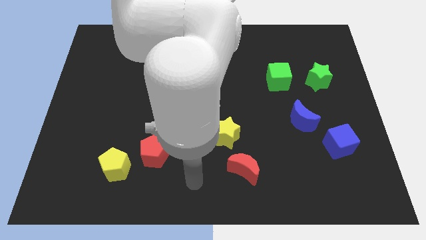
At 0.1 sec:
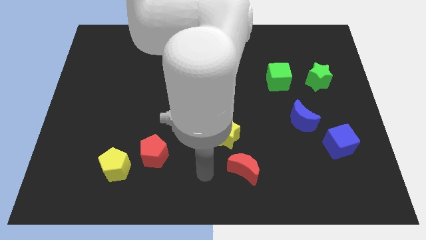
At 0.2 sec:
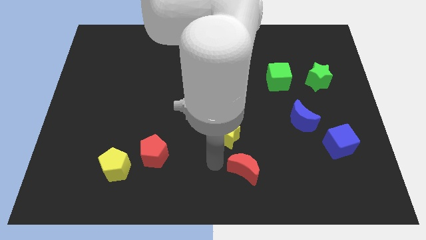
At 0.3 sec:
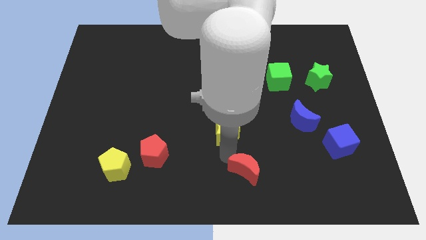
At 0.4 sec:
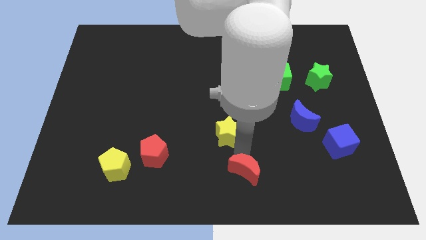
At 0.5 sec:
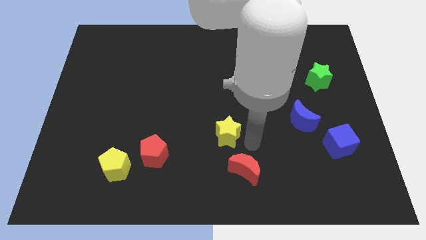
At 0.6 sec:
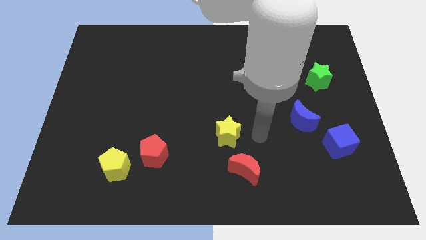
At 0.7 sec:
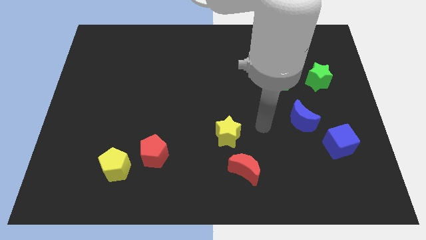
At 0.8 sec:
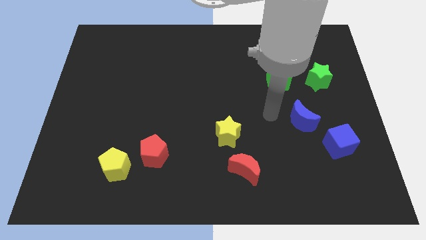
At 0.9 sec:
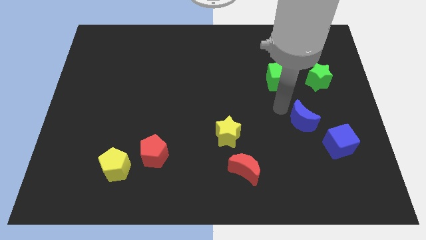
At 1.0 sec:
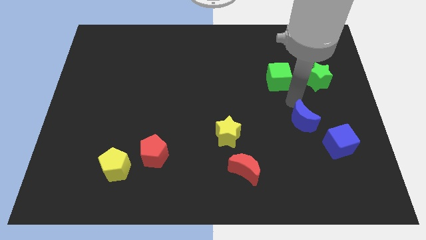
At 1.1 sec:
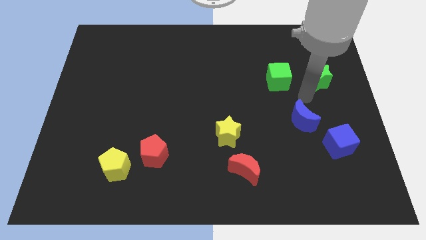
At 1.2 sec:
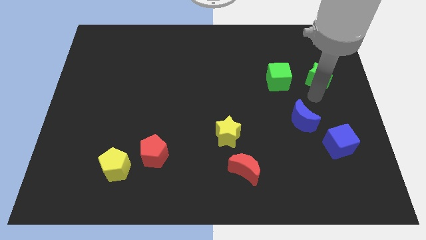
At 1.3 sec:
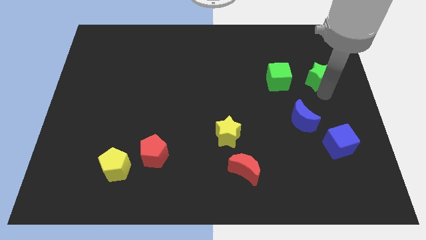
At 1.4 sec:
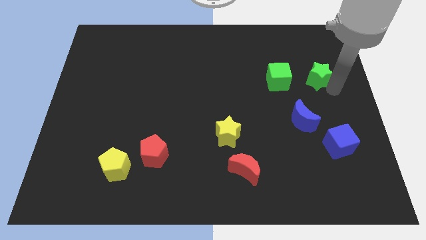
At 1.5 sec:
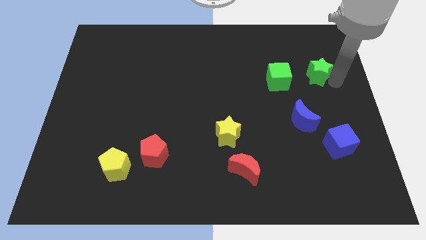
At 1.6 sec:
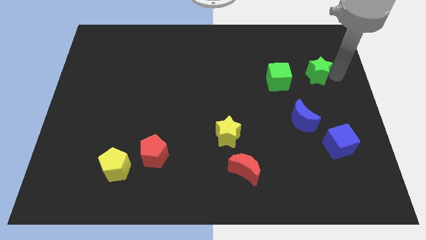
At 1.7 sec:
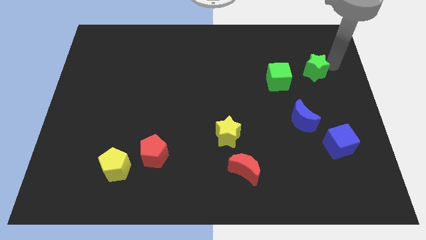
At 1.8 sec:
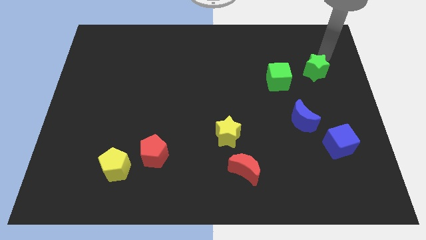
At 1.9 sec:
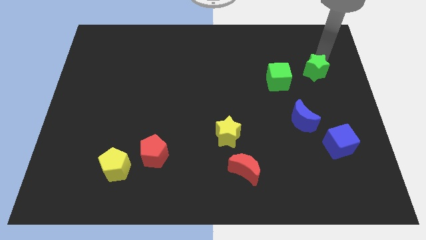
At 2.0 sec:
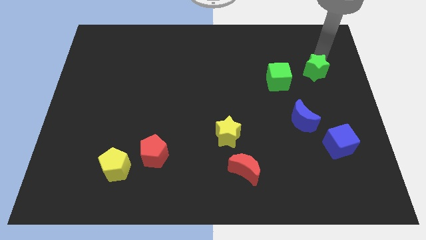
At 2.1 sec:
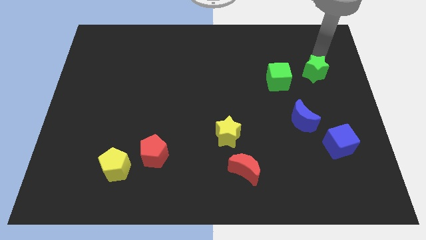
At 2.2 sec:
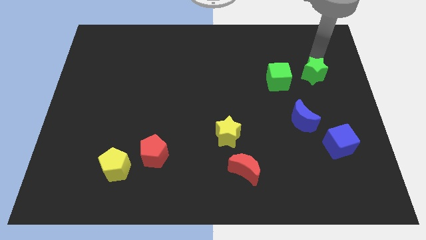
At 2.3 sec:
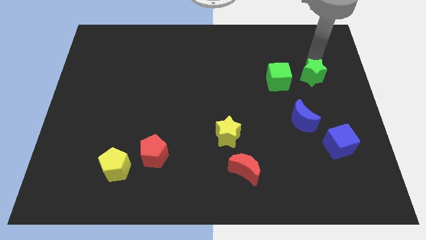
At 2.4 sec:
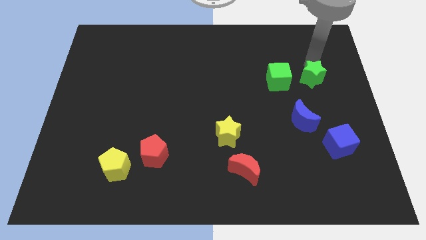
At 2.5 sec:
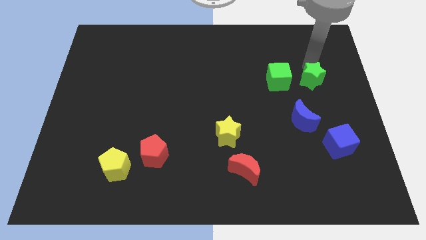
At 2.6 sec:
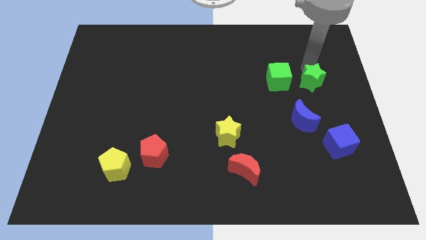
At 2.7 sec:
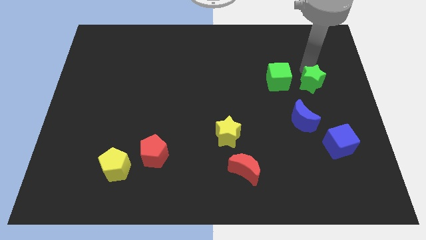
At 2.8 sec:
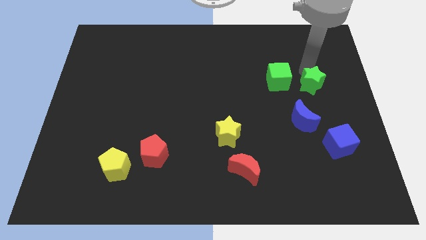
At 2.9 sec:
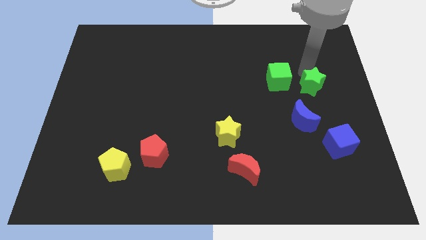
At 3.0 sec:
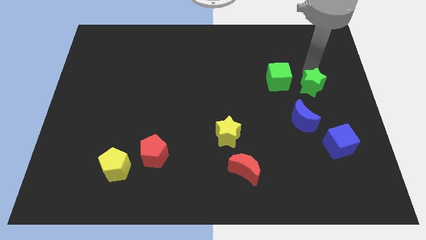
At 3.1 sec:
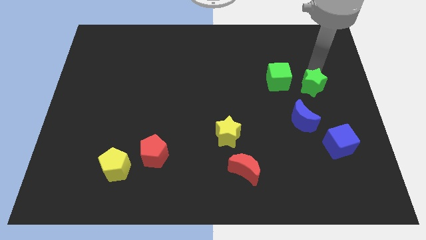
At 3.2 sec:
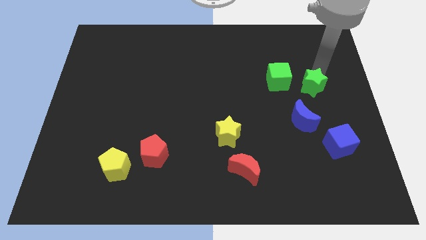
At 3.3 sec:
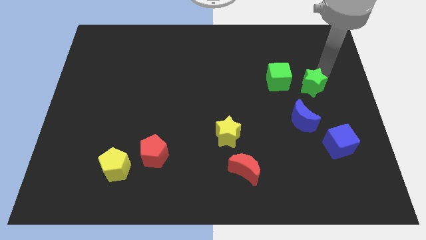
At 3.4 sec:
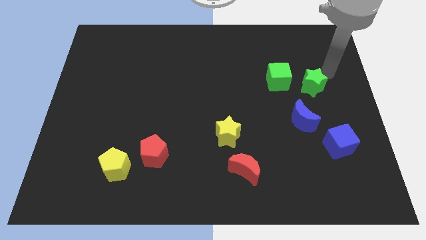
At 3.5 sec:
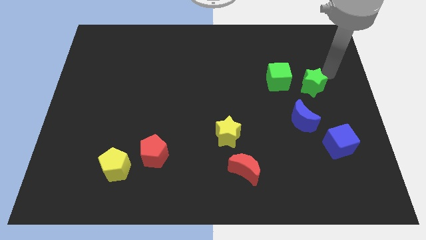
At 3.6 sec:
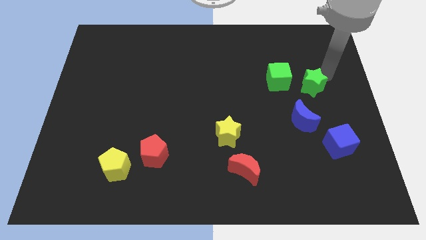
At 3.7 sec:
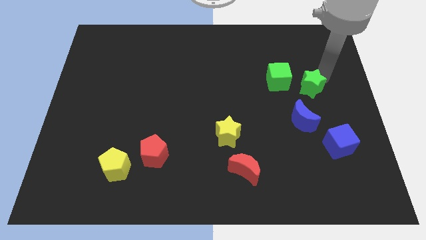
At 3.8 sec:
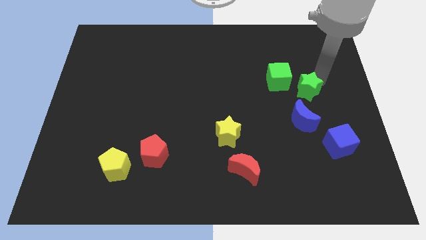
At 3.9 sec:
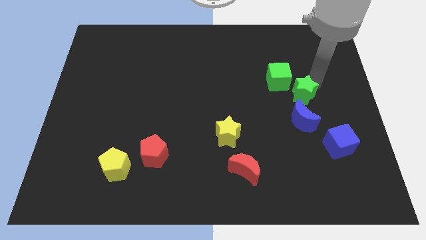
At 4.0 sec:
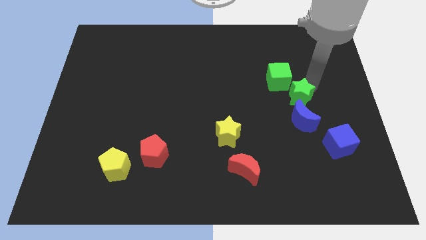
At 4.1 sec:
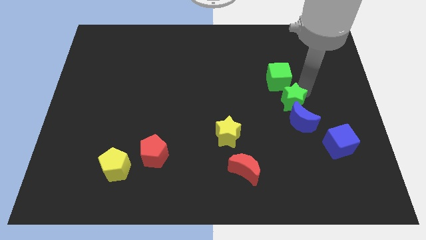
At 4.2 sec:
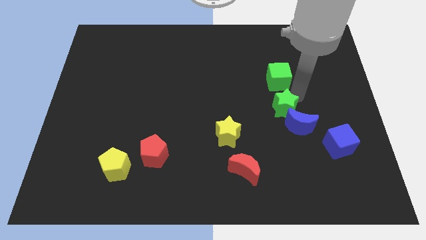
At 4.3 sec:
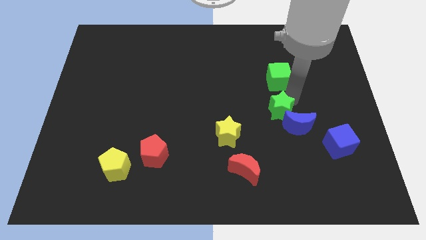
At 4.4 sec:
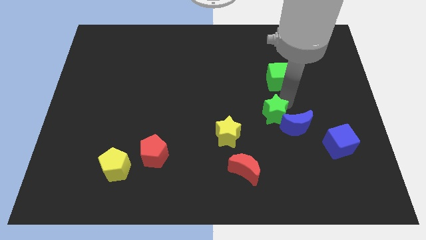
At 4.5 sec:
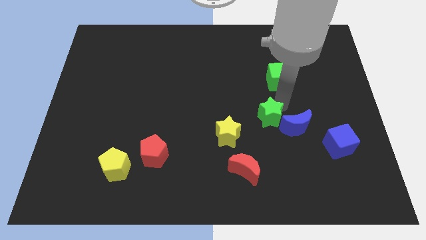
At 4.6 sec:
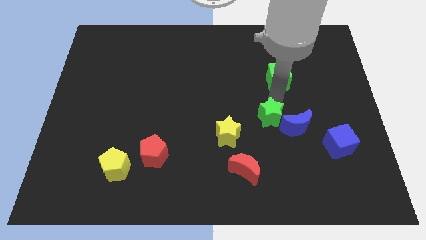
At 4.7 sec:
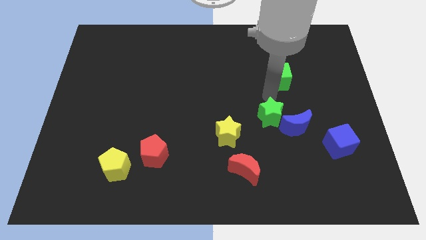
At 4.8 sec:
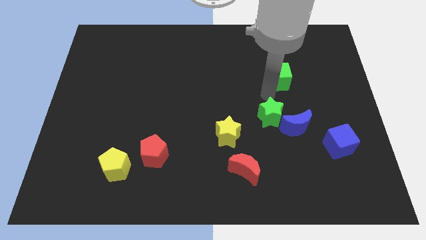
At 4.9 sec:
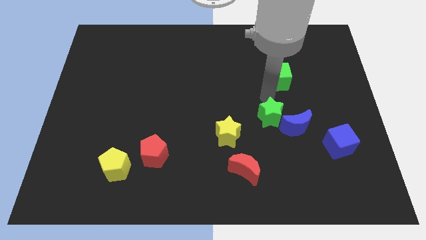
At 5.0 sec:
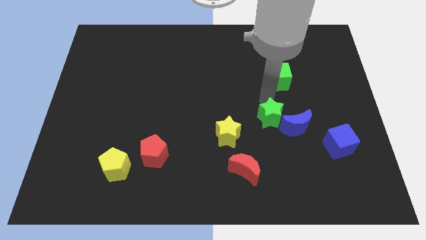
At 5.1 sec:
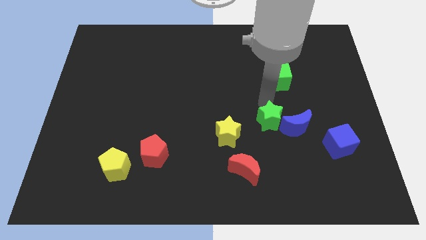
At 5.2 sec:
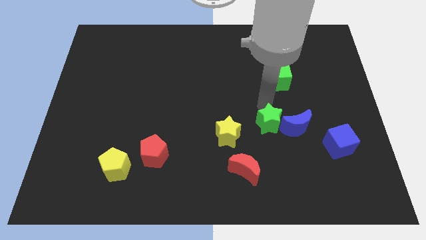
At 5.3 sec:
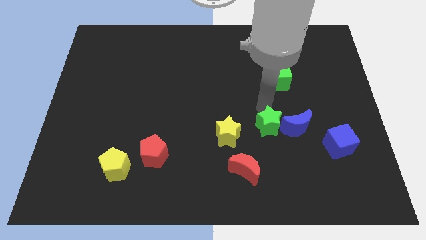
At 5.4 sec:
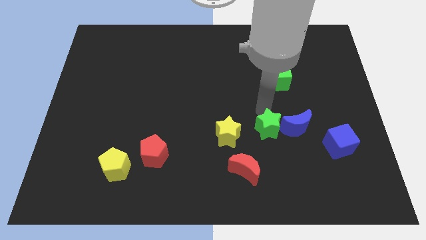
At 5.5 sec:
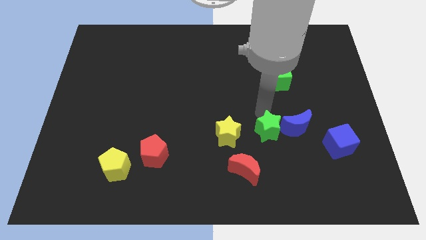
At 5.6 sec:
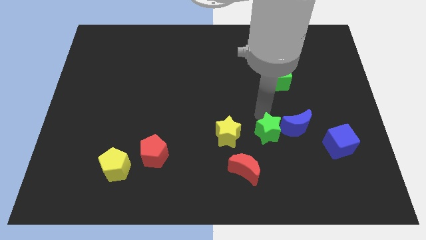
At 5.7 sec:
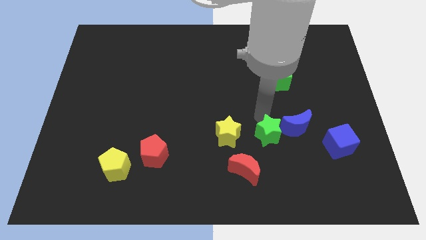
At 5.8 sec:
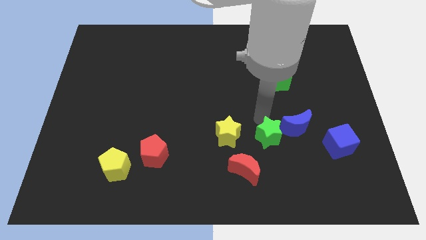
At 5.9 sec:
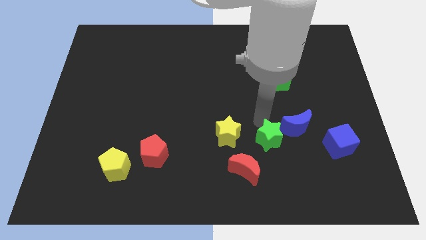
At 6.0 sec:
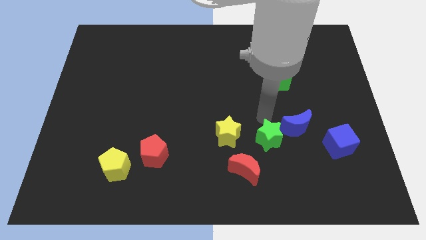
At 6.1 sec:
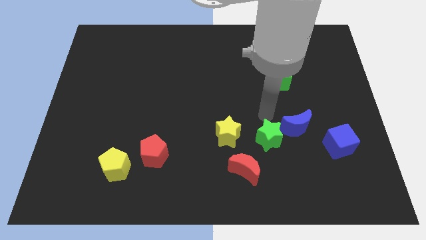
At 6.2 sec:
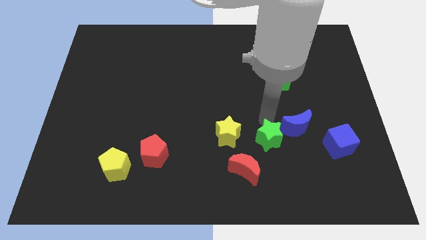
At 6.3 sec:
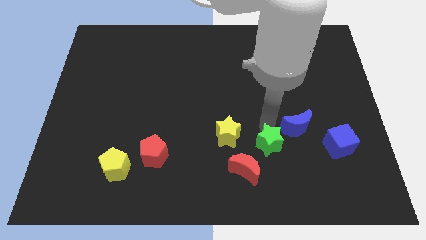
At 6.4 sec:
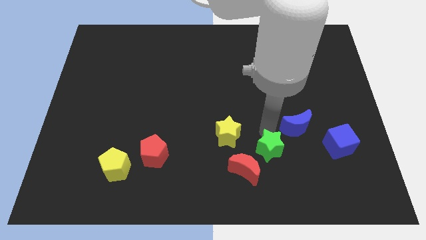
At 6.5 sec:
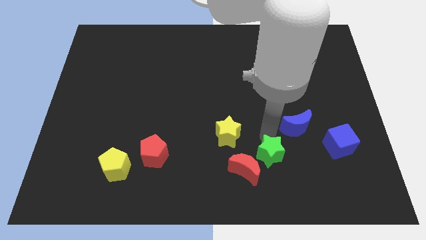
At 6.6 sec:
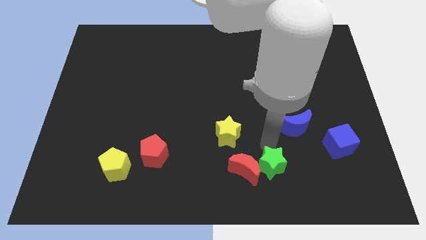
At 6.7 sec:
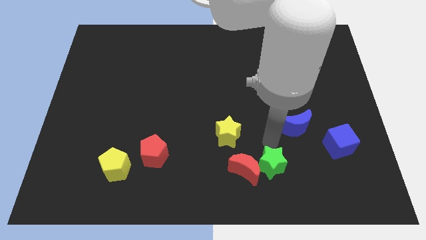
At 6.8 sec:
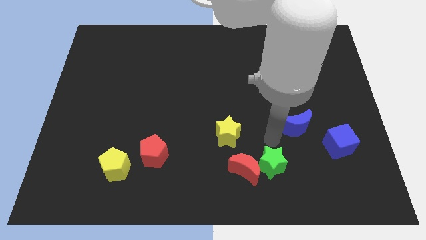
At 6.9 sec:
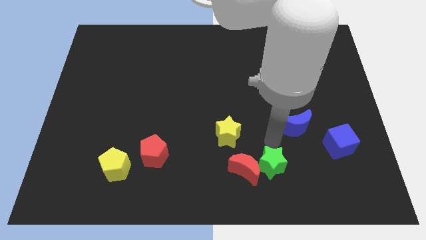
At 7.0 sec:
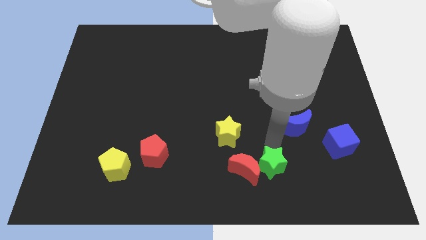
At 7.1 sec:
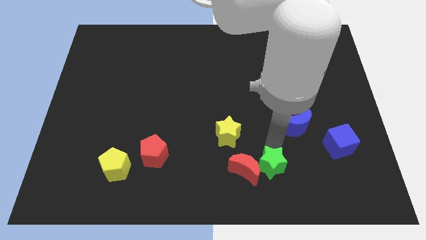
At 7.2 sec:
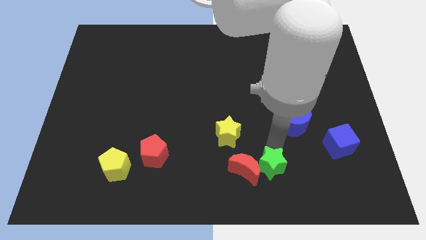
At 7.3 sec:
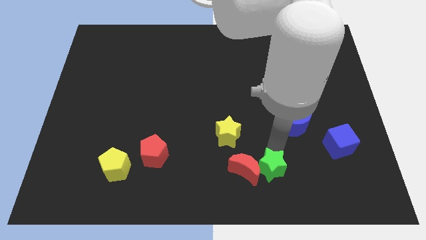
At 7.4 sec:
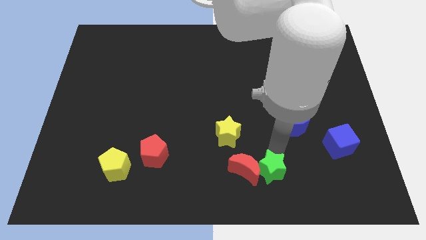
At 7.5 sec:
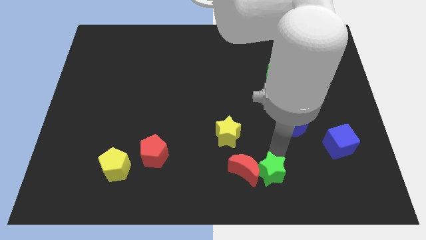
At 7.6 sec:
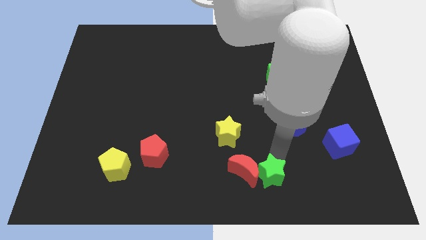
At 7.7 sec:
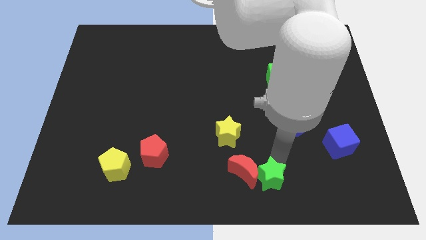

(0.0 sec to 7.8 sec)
push the green star to the bottom
